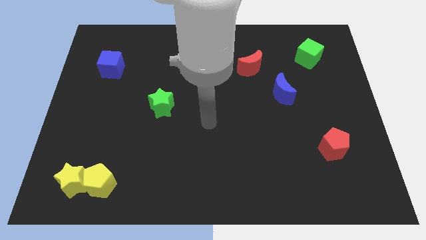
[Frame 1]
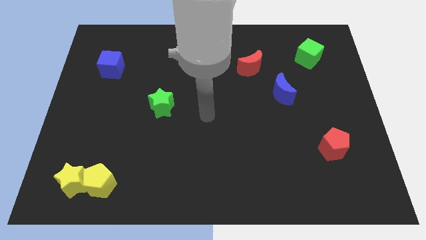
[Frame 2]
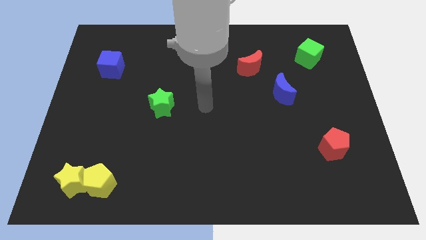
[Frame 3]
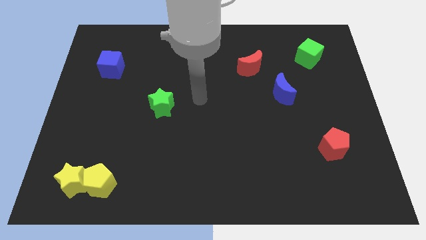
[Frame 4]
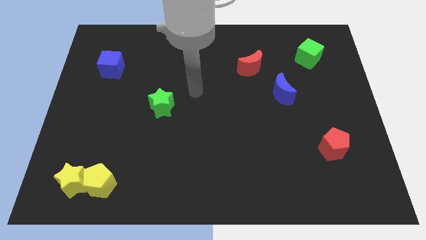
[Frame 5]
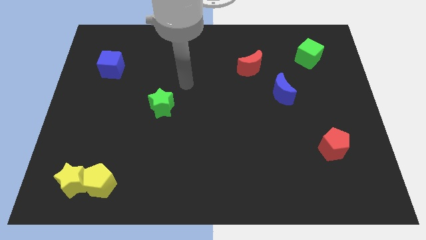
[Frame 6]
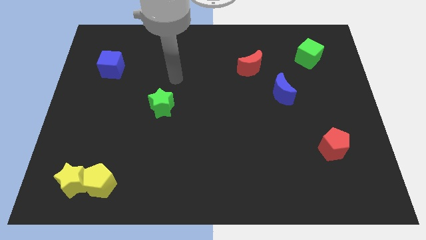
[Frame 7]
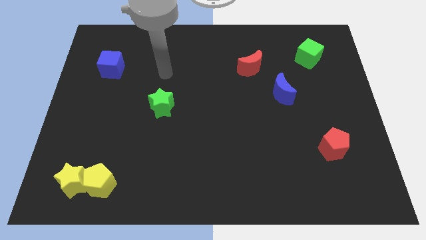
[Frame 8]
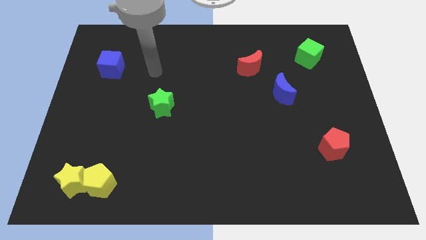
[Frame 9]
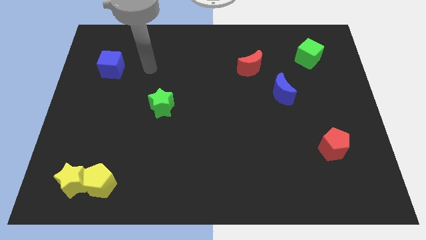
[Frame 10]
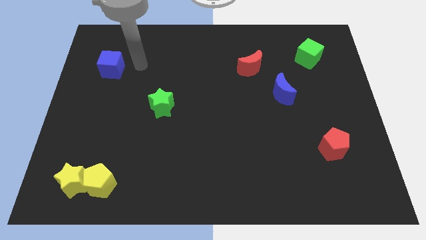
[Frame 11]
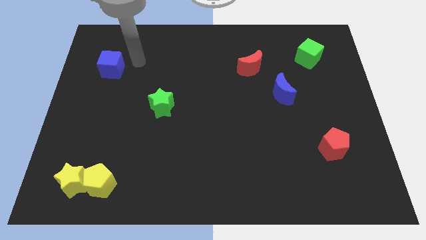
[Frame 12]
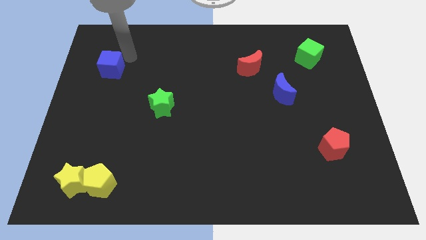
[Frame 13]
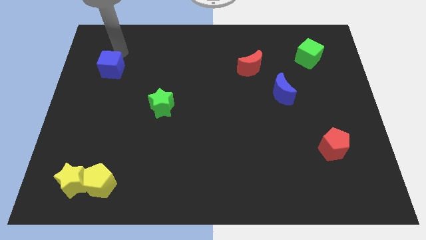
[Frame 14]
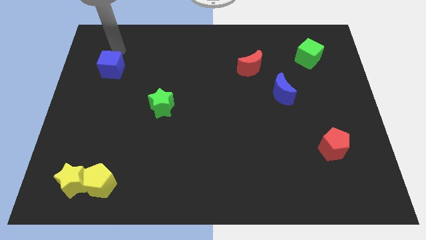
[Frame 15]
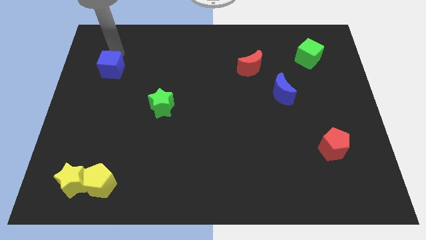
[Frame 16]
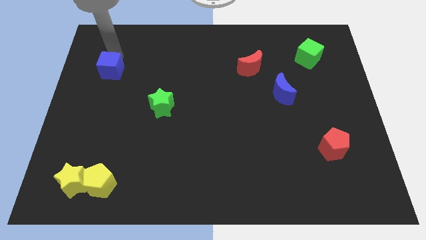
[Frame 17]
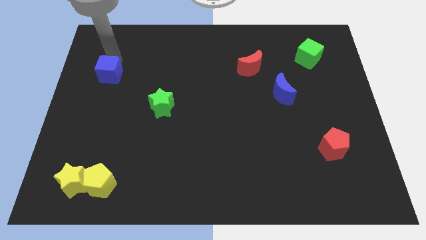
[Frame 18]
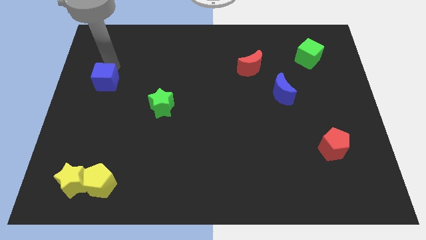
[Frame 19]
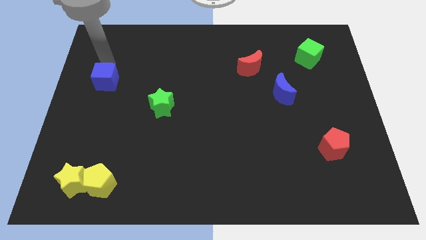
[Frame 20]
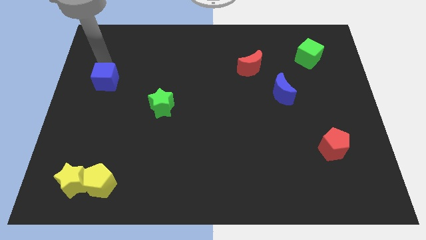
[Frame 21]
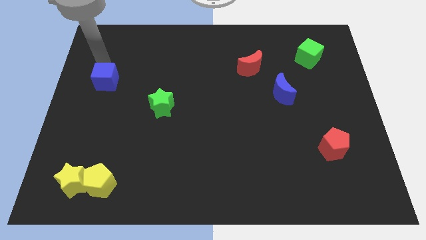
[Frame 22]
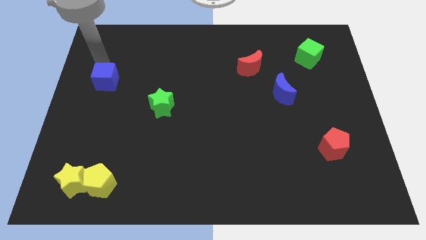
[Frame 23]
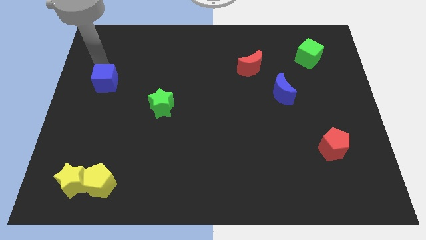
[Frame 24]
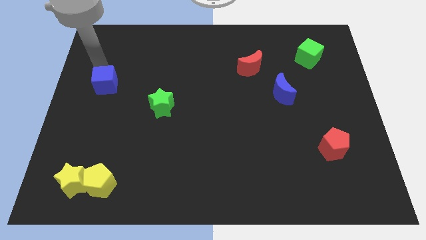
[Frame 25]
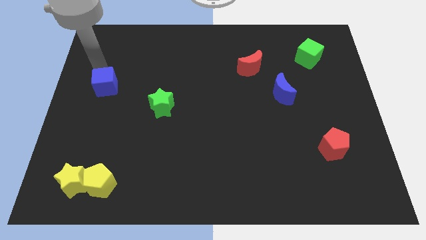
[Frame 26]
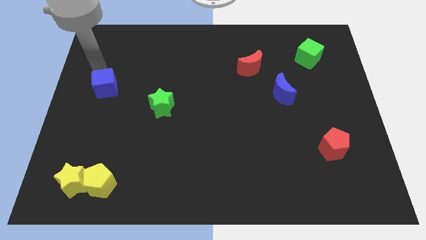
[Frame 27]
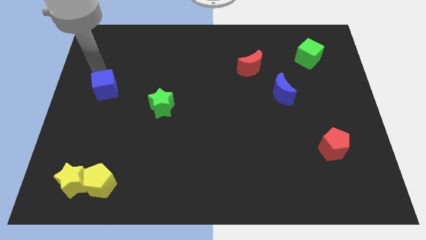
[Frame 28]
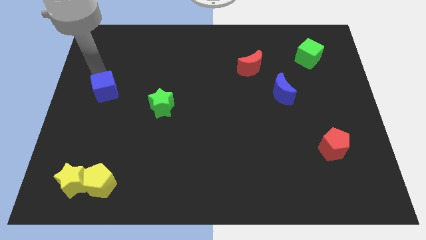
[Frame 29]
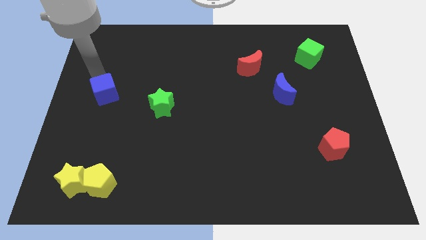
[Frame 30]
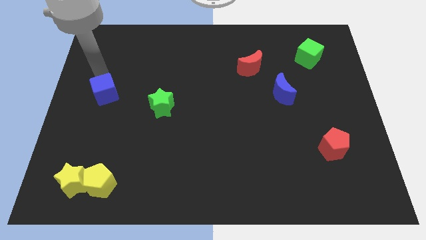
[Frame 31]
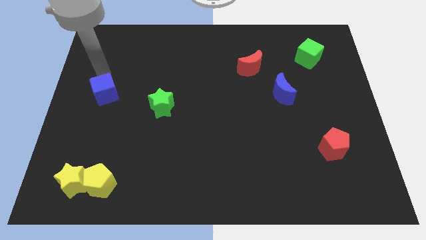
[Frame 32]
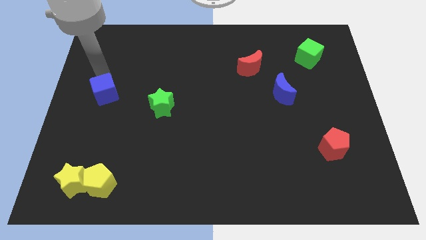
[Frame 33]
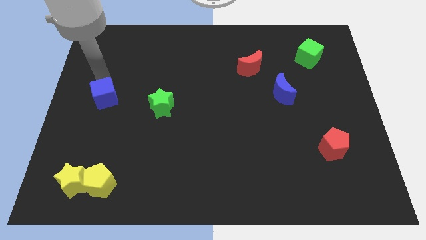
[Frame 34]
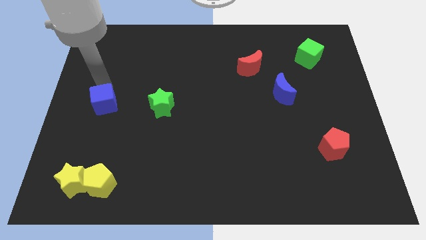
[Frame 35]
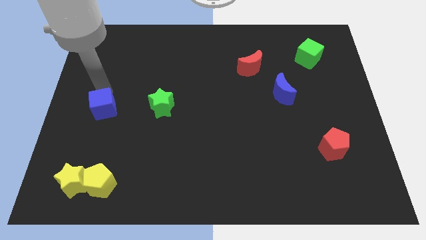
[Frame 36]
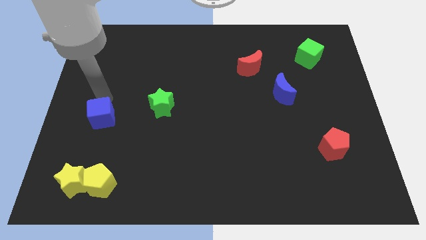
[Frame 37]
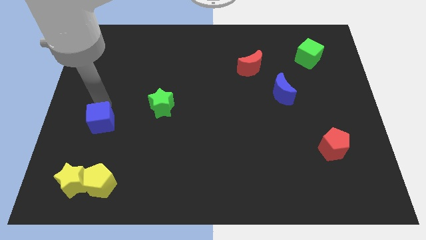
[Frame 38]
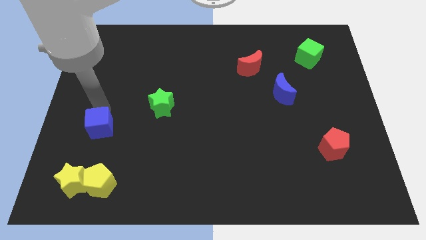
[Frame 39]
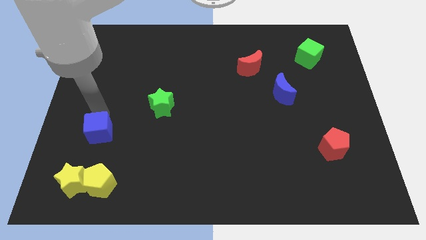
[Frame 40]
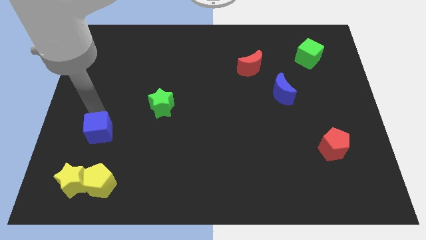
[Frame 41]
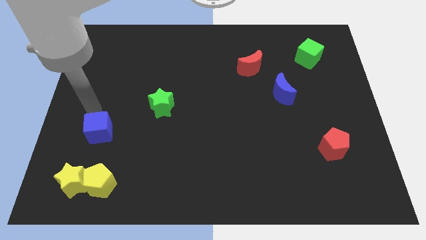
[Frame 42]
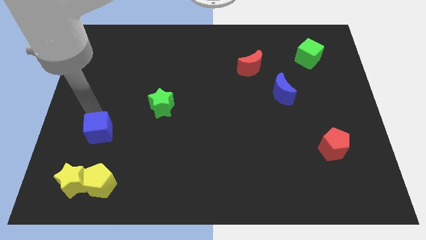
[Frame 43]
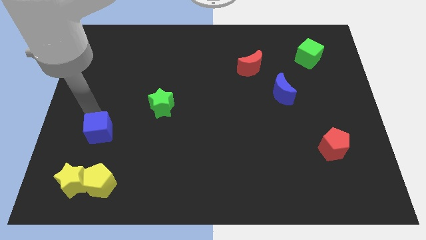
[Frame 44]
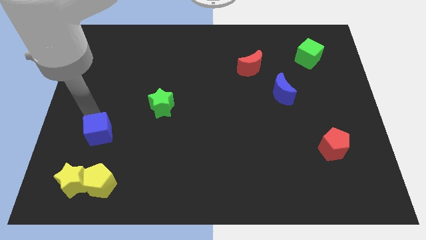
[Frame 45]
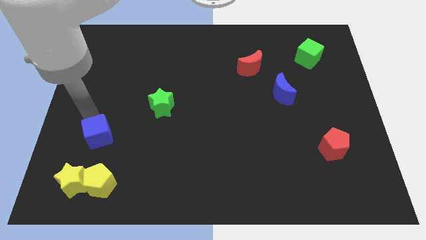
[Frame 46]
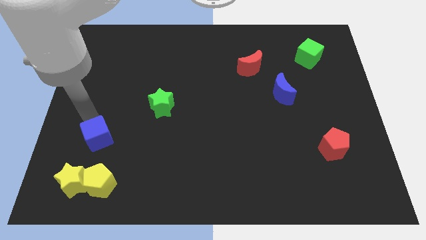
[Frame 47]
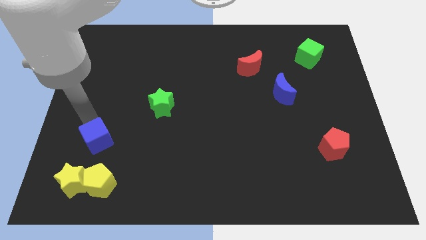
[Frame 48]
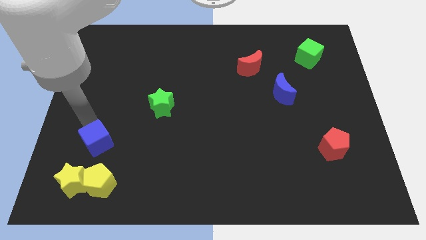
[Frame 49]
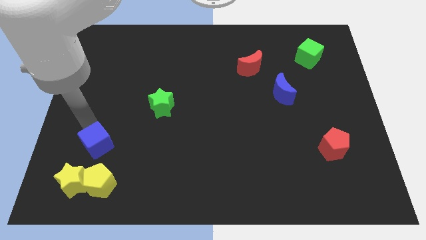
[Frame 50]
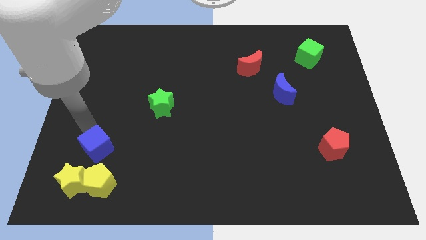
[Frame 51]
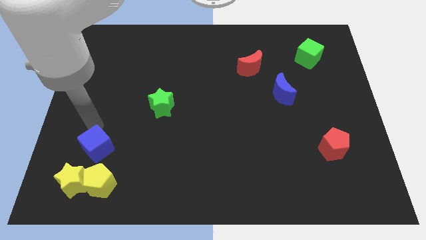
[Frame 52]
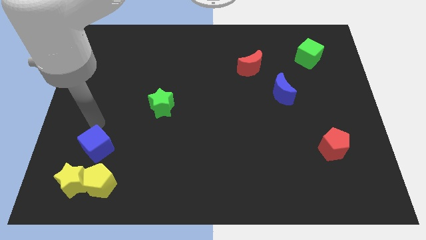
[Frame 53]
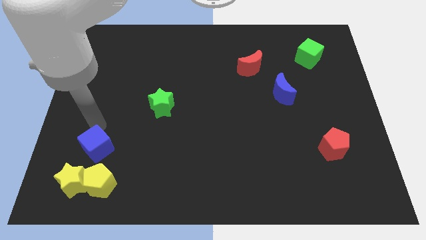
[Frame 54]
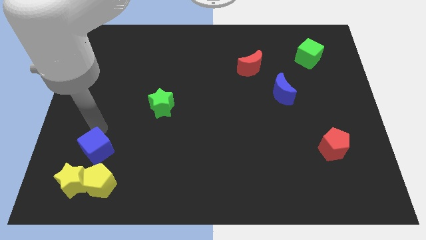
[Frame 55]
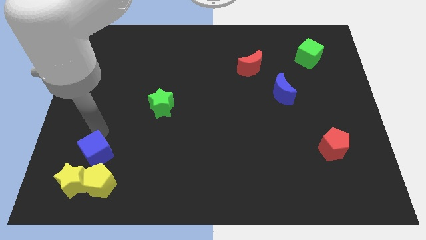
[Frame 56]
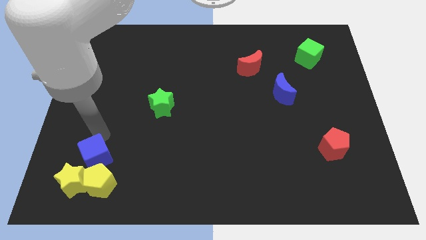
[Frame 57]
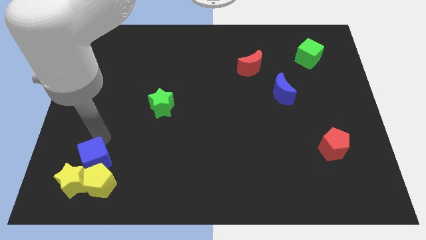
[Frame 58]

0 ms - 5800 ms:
slide the blue cube next to the yellow pentagon

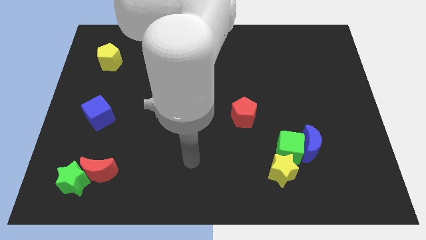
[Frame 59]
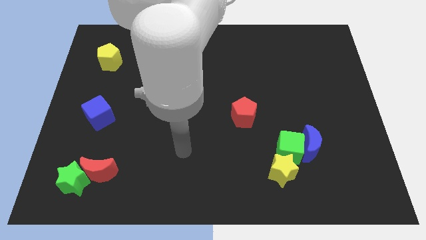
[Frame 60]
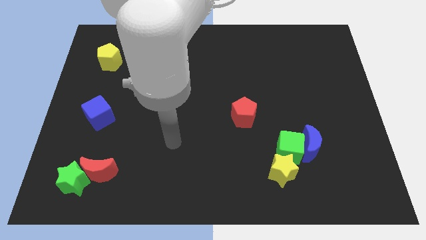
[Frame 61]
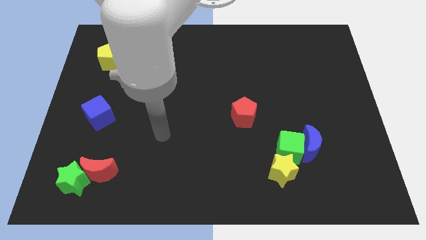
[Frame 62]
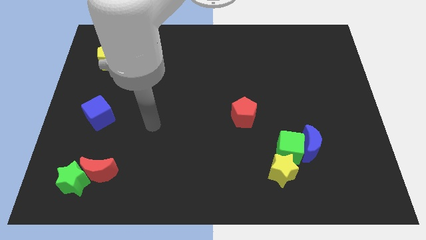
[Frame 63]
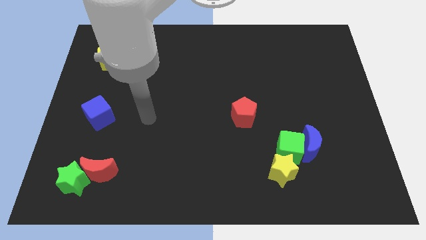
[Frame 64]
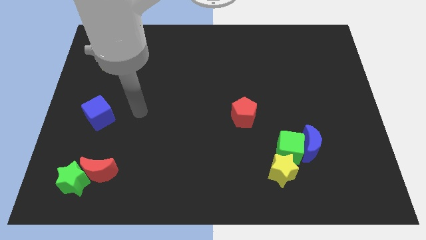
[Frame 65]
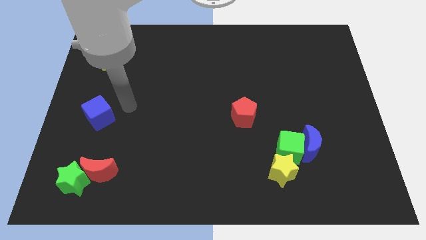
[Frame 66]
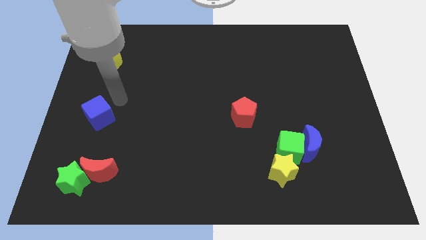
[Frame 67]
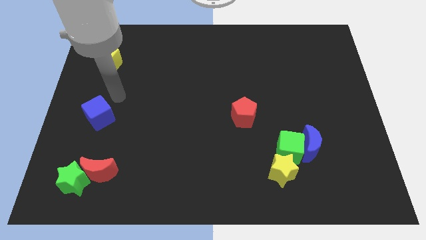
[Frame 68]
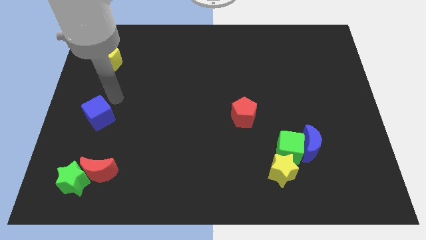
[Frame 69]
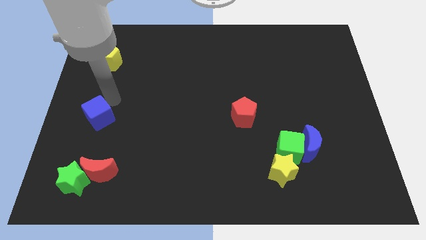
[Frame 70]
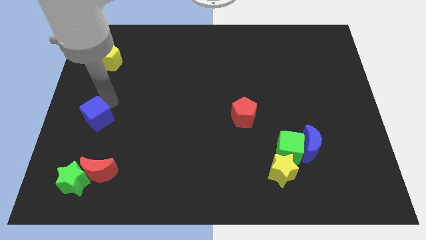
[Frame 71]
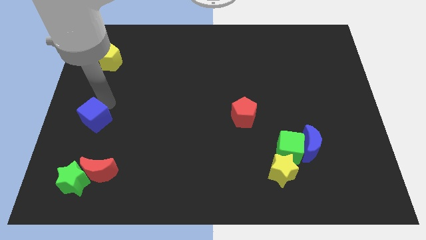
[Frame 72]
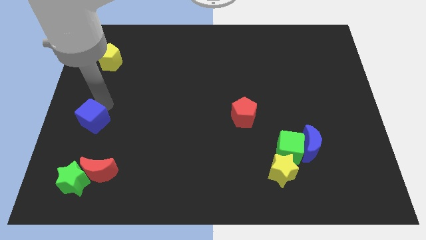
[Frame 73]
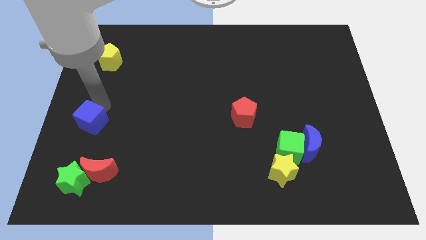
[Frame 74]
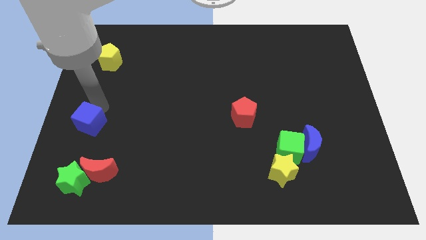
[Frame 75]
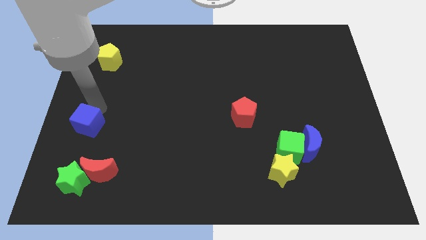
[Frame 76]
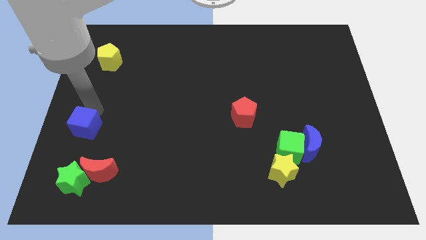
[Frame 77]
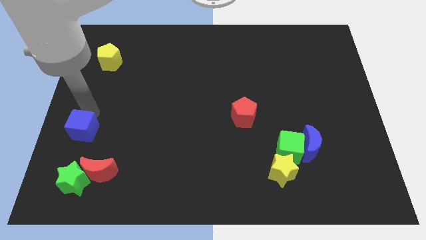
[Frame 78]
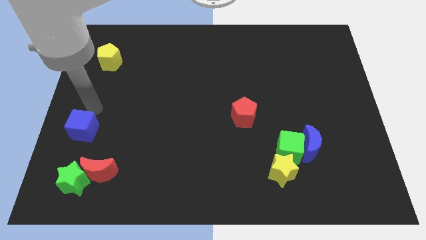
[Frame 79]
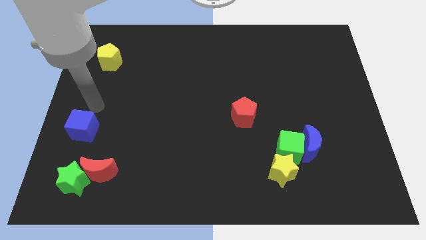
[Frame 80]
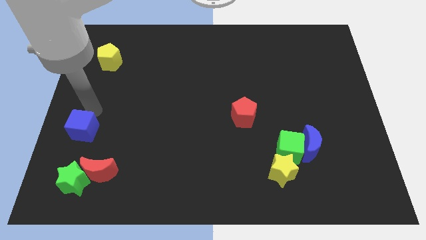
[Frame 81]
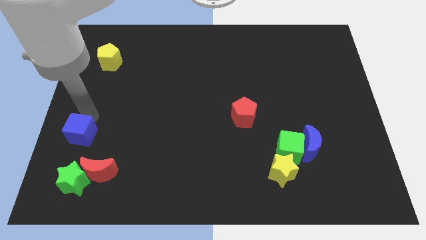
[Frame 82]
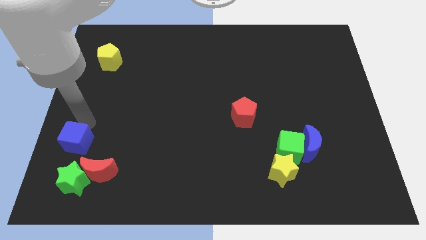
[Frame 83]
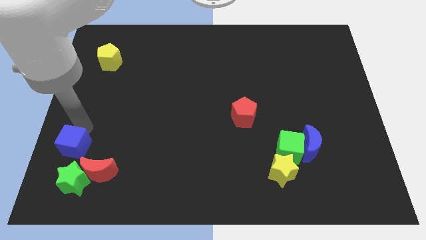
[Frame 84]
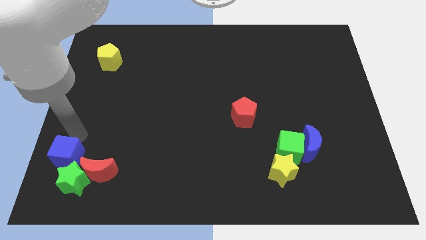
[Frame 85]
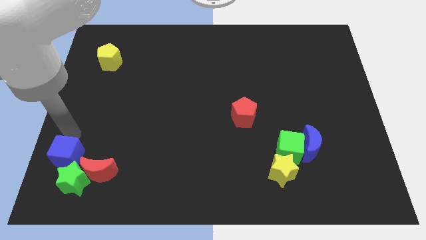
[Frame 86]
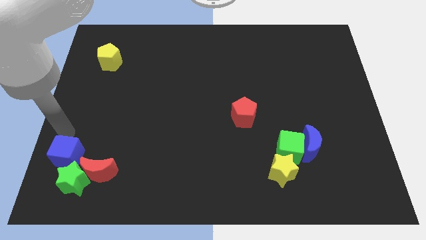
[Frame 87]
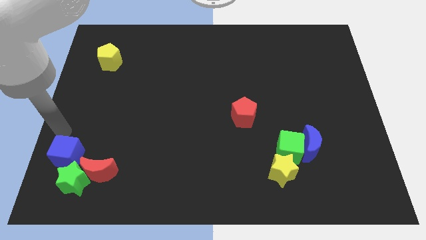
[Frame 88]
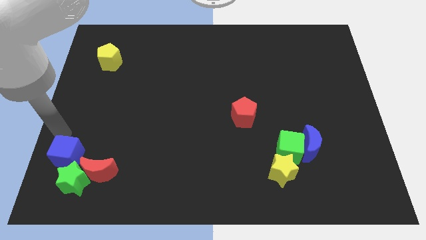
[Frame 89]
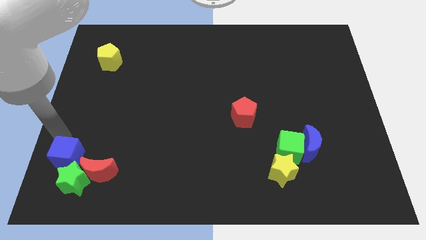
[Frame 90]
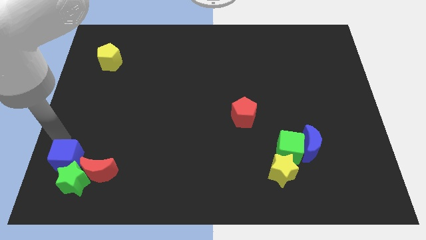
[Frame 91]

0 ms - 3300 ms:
push the blue cube close to the green star
